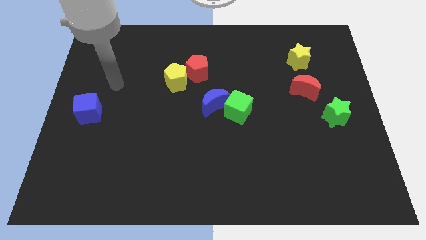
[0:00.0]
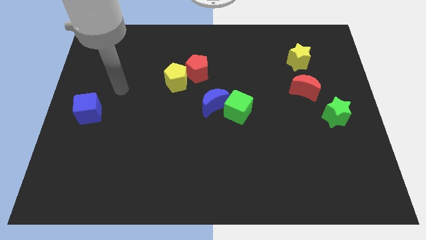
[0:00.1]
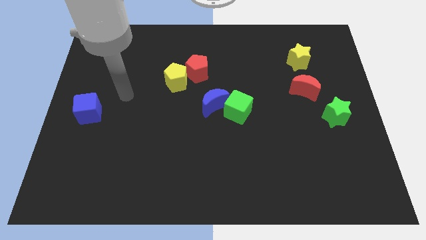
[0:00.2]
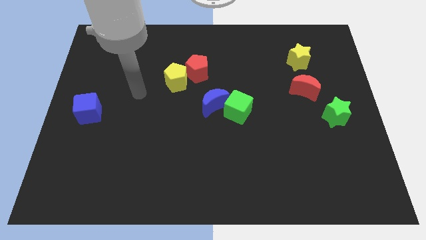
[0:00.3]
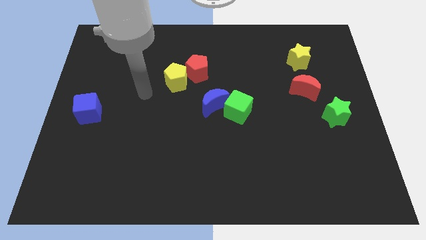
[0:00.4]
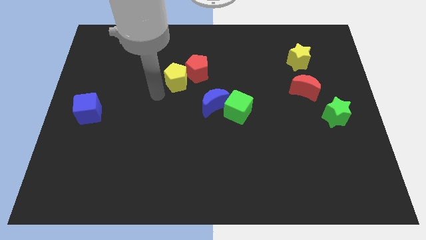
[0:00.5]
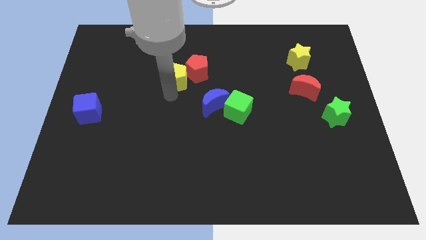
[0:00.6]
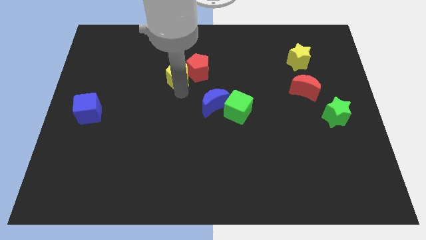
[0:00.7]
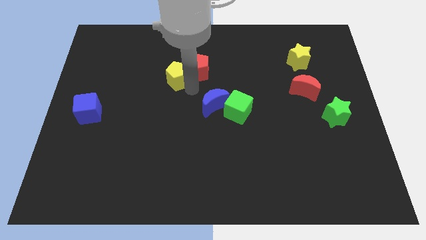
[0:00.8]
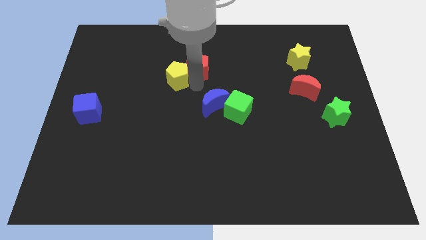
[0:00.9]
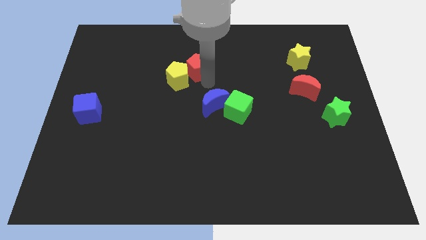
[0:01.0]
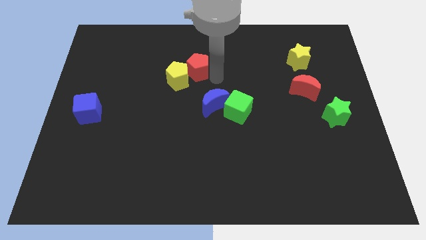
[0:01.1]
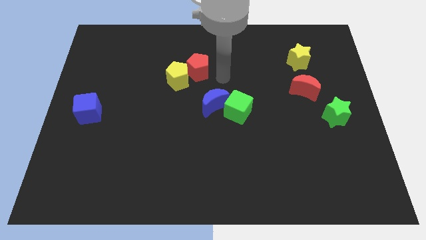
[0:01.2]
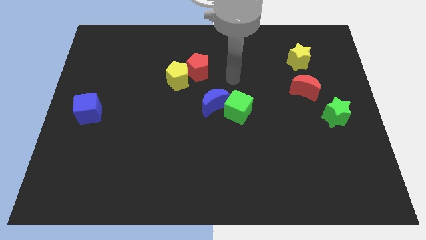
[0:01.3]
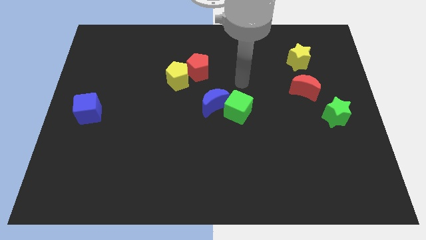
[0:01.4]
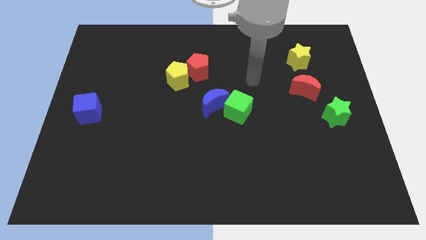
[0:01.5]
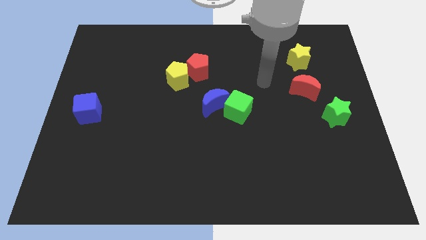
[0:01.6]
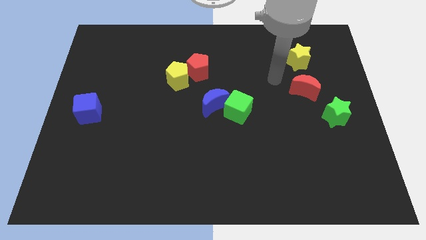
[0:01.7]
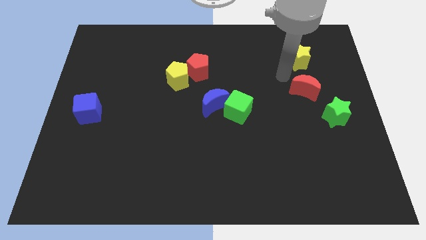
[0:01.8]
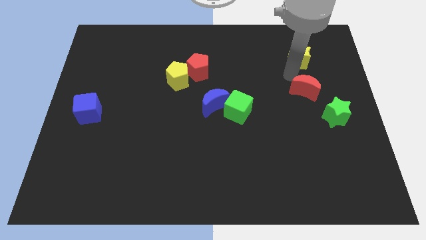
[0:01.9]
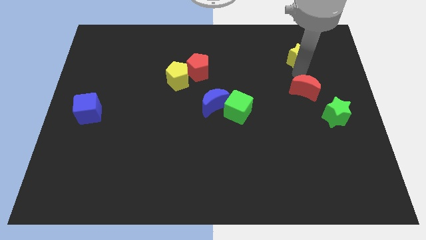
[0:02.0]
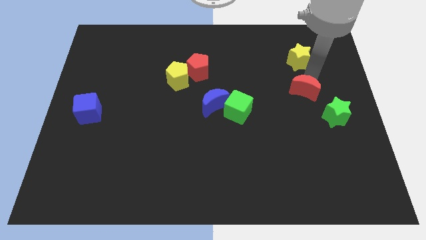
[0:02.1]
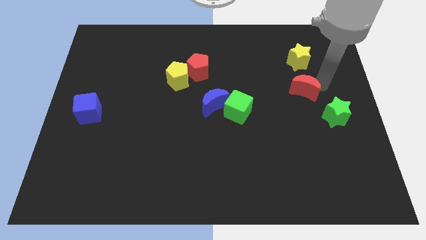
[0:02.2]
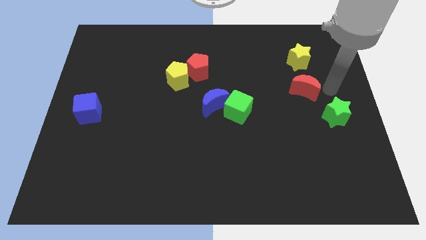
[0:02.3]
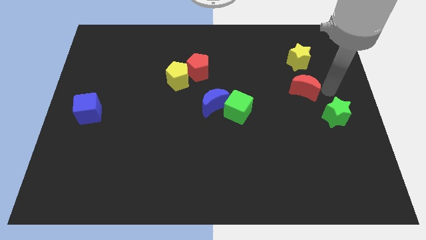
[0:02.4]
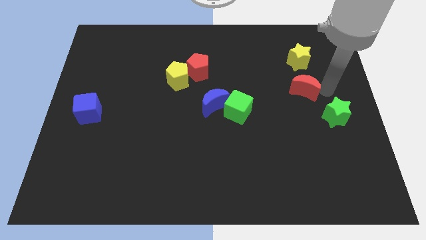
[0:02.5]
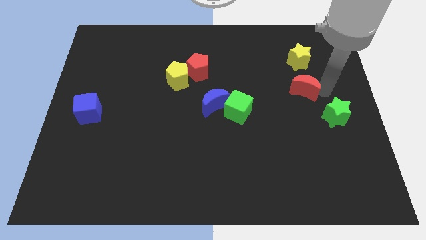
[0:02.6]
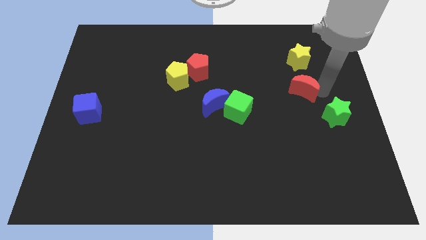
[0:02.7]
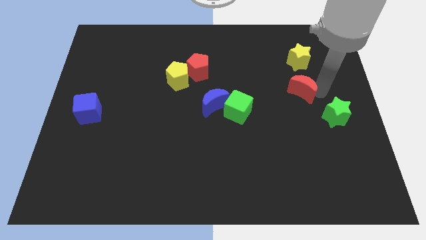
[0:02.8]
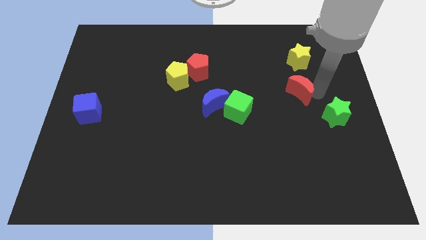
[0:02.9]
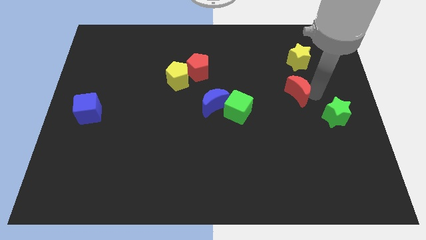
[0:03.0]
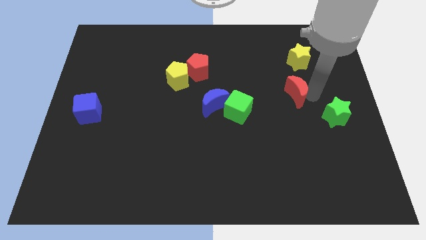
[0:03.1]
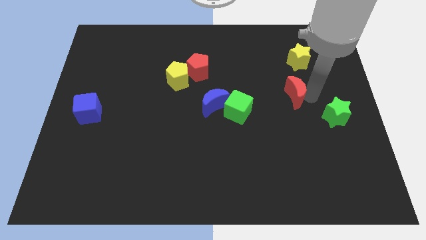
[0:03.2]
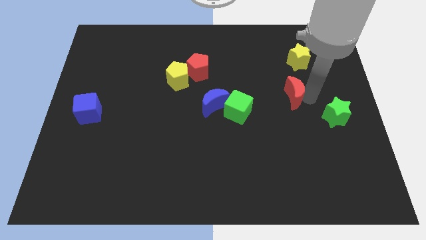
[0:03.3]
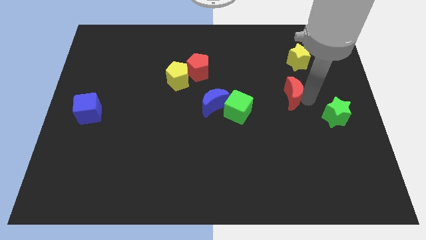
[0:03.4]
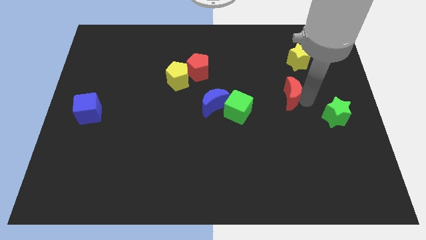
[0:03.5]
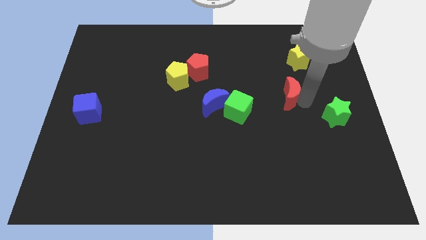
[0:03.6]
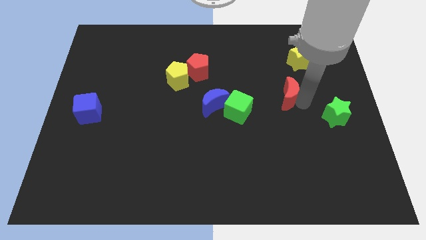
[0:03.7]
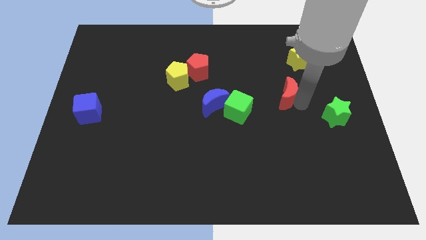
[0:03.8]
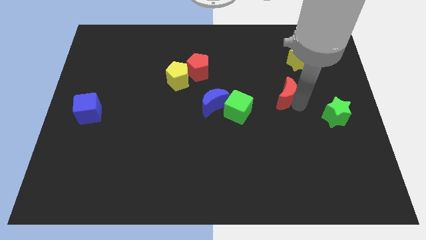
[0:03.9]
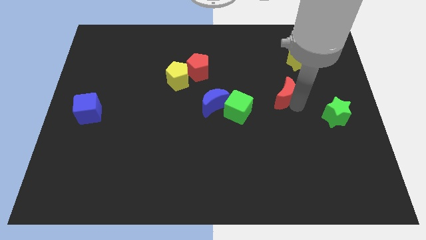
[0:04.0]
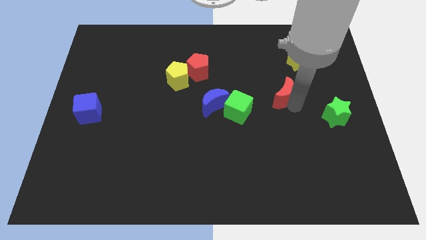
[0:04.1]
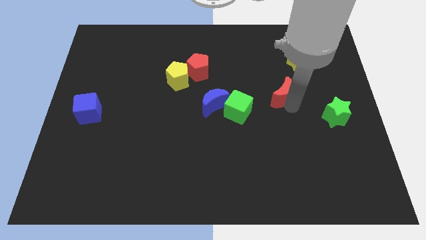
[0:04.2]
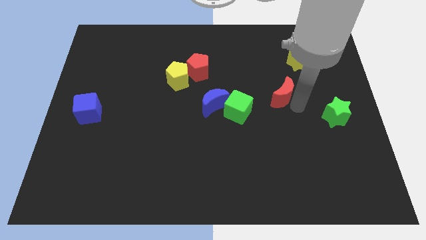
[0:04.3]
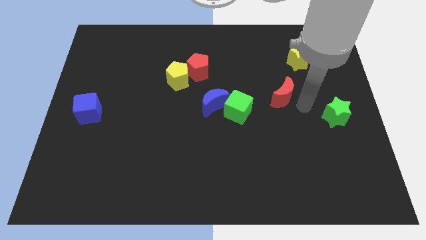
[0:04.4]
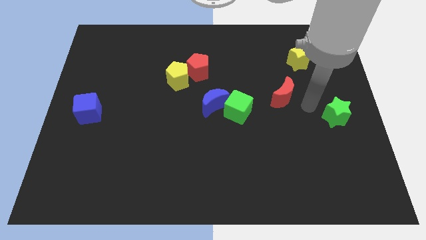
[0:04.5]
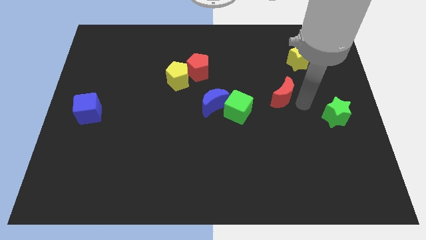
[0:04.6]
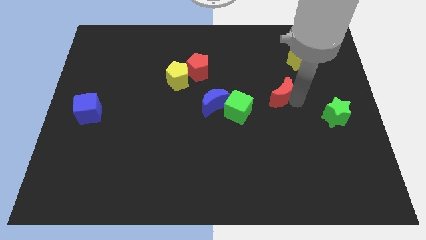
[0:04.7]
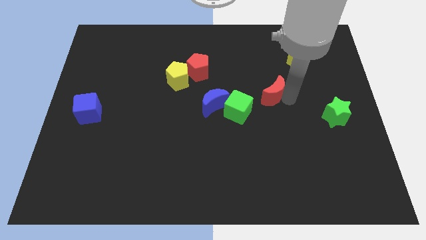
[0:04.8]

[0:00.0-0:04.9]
slightly slide the red moon to the left

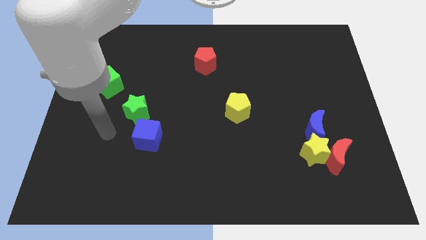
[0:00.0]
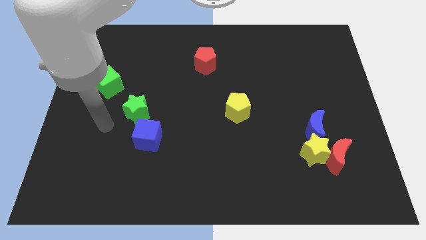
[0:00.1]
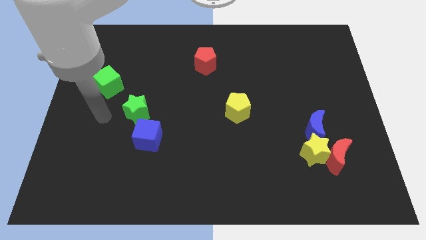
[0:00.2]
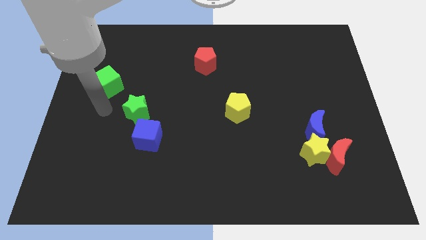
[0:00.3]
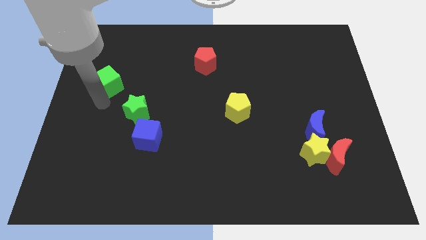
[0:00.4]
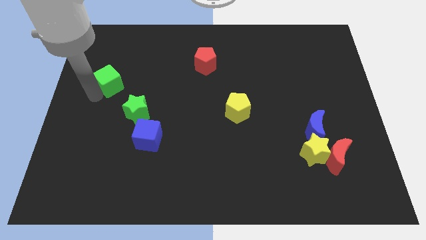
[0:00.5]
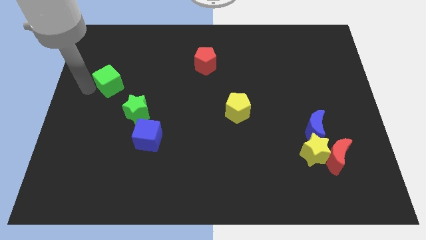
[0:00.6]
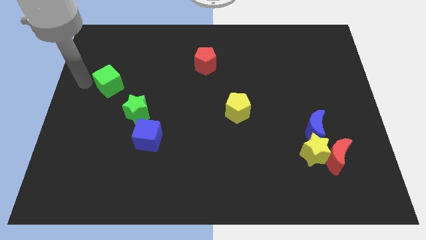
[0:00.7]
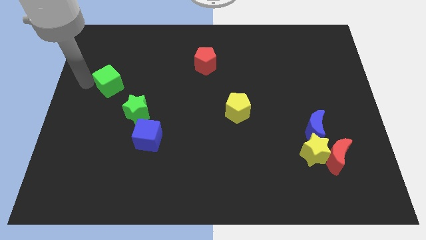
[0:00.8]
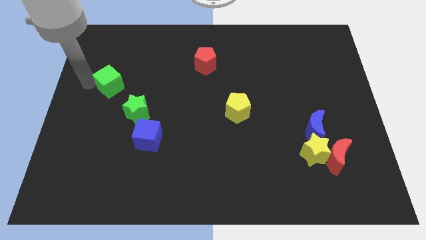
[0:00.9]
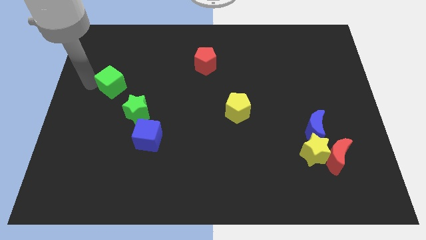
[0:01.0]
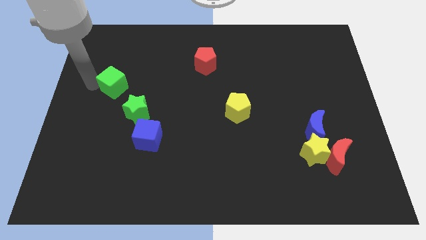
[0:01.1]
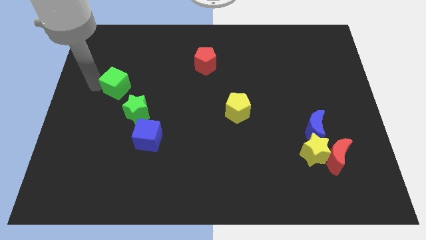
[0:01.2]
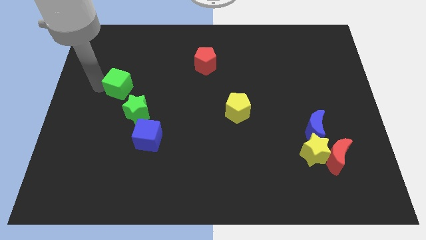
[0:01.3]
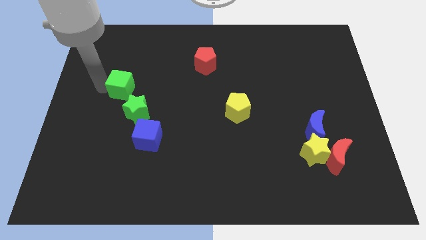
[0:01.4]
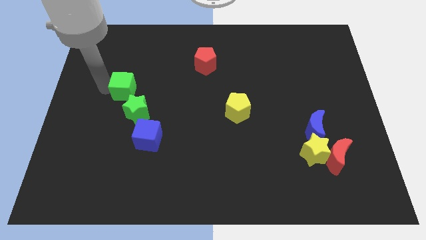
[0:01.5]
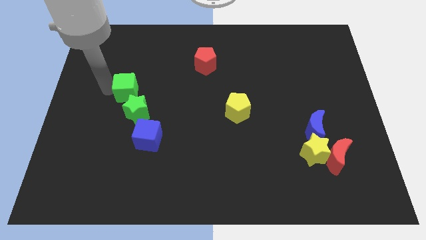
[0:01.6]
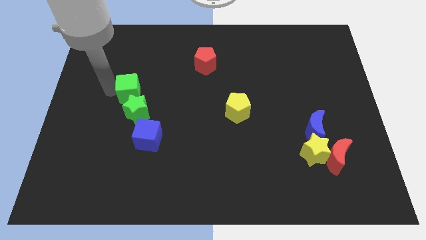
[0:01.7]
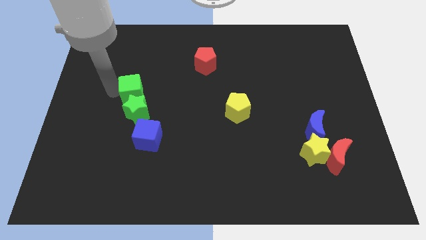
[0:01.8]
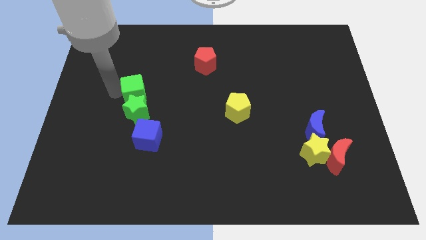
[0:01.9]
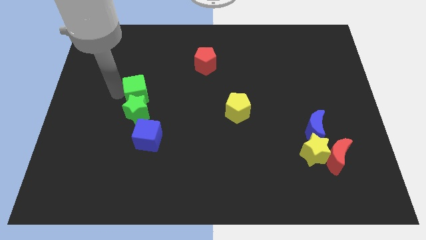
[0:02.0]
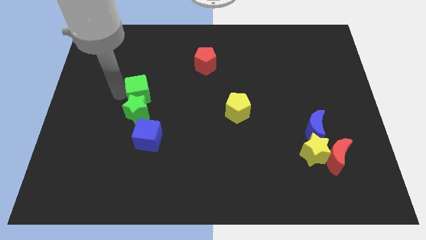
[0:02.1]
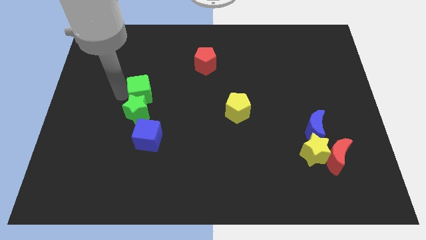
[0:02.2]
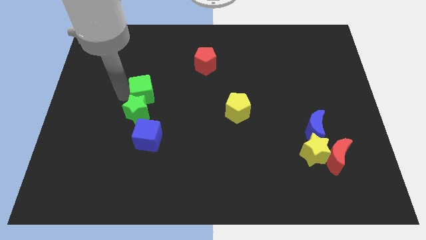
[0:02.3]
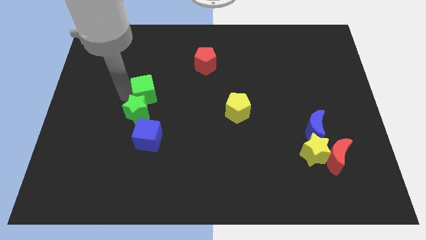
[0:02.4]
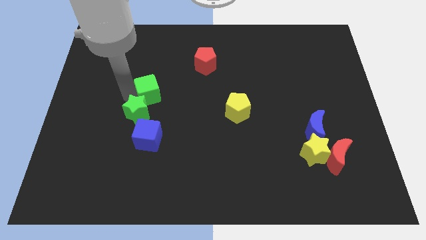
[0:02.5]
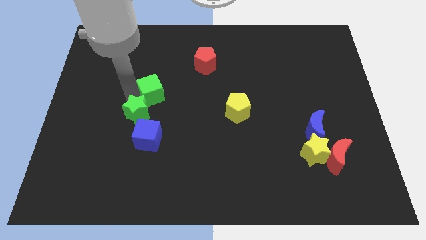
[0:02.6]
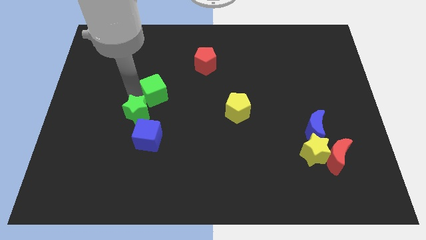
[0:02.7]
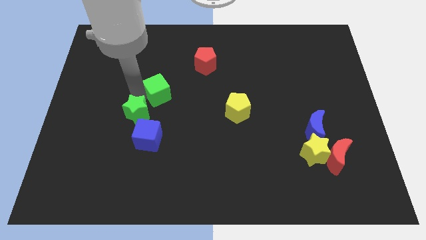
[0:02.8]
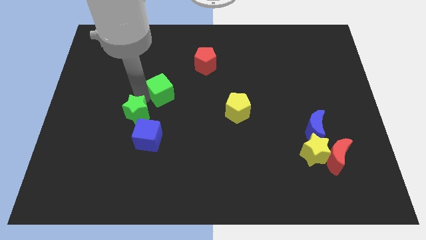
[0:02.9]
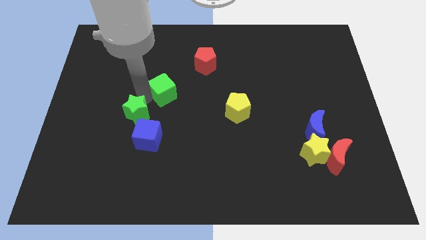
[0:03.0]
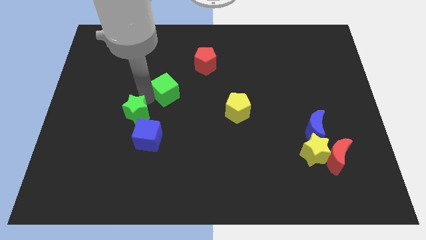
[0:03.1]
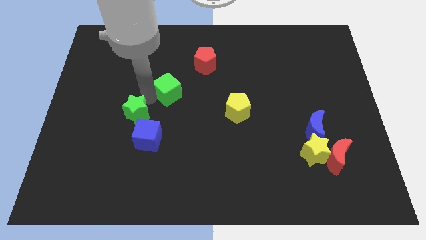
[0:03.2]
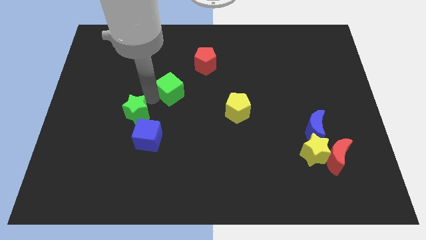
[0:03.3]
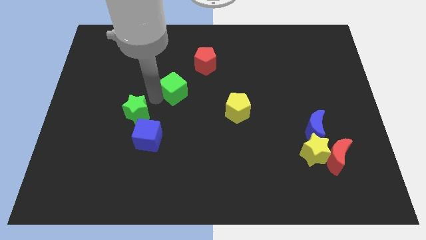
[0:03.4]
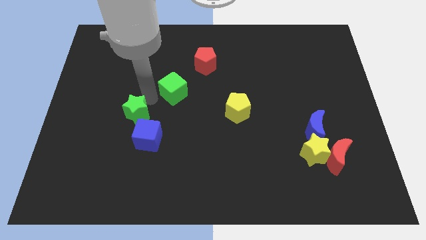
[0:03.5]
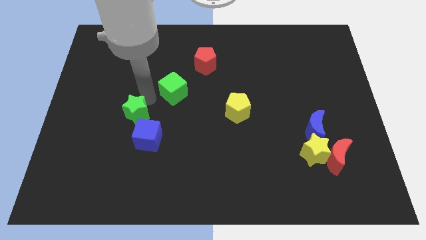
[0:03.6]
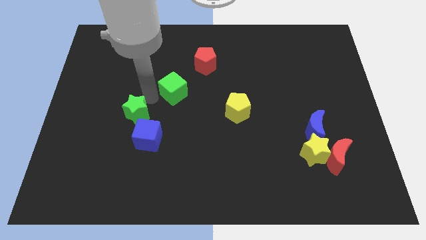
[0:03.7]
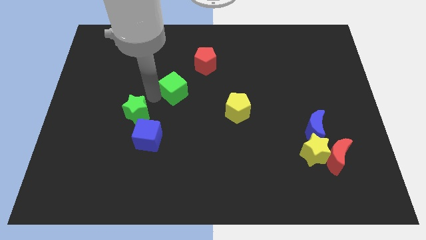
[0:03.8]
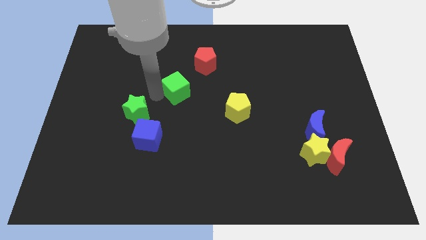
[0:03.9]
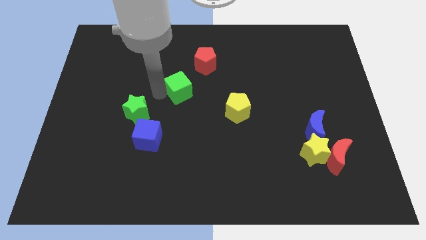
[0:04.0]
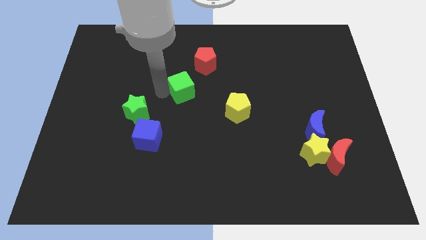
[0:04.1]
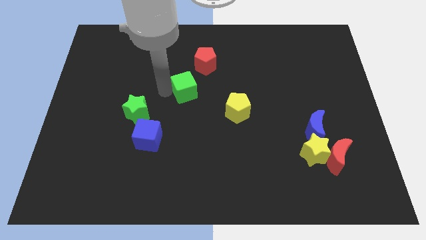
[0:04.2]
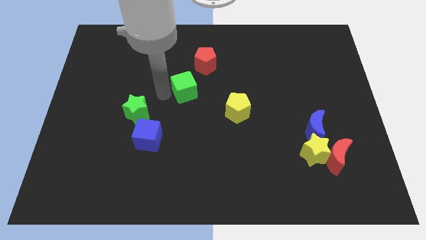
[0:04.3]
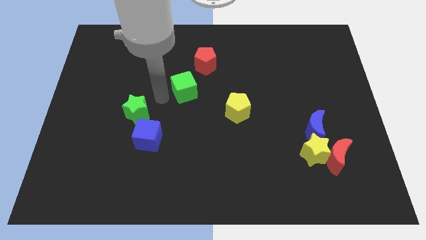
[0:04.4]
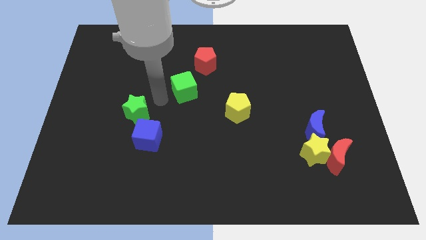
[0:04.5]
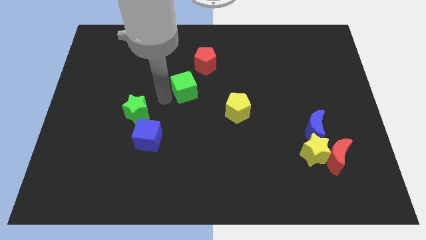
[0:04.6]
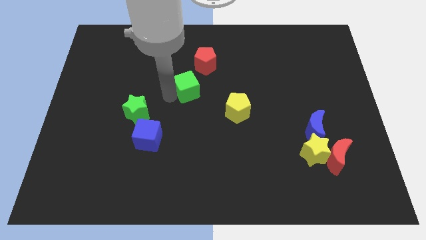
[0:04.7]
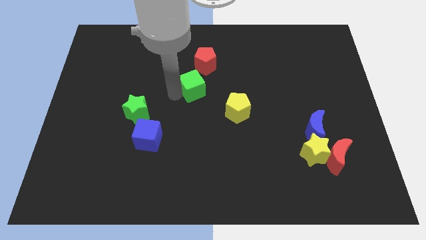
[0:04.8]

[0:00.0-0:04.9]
slide the green cube right
